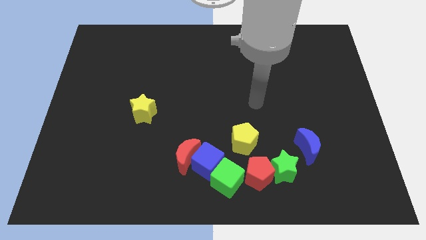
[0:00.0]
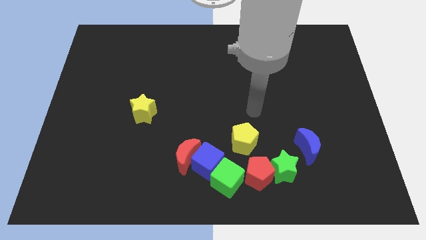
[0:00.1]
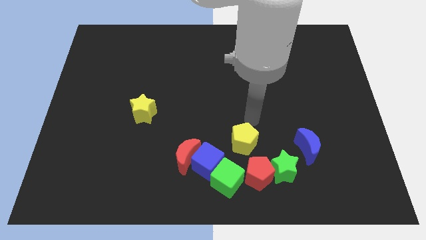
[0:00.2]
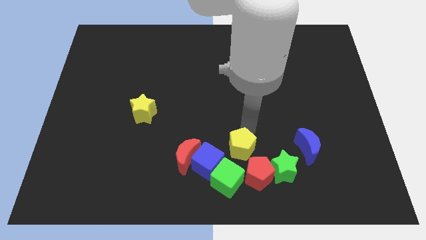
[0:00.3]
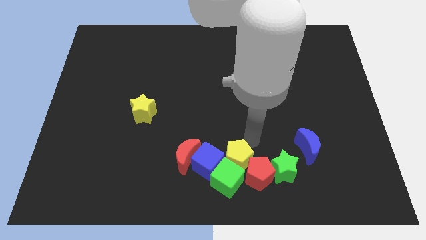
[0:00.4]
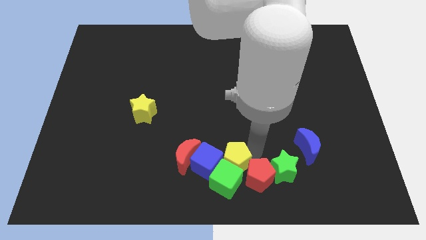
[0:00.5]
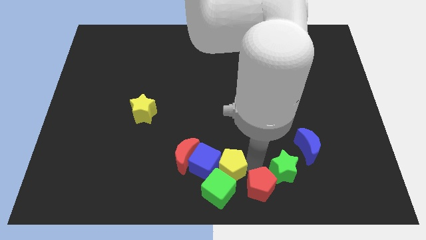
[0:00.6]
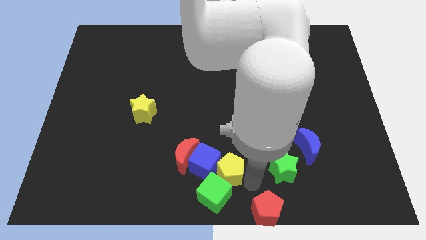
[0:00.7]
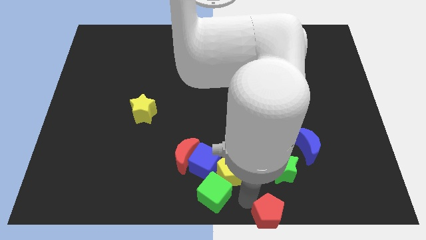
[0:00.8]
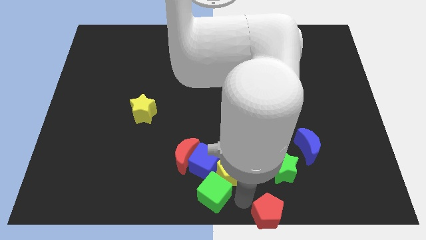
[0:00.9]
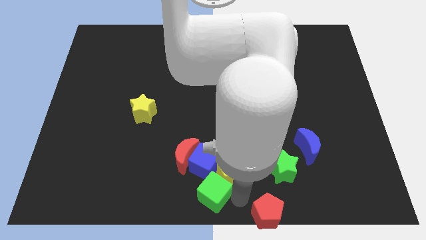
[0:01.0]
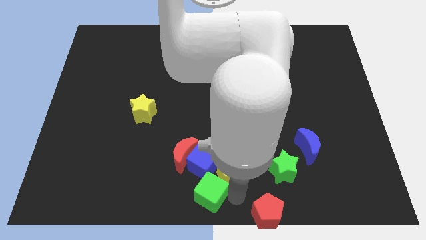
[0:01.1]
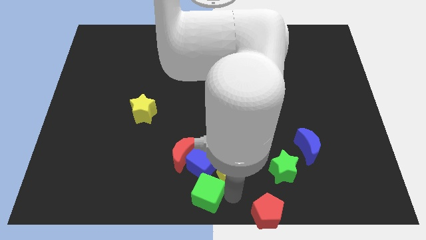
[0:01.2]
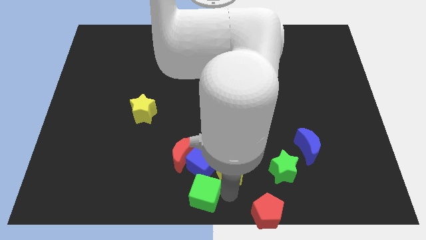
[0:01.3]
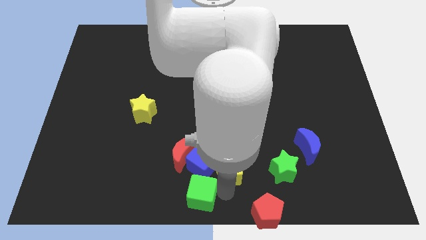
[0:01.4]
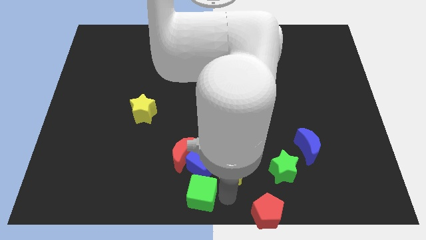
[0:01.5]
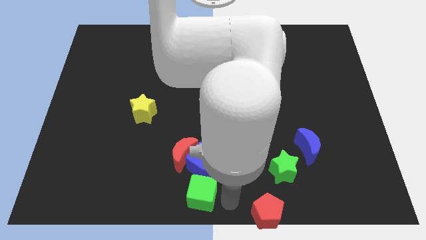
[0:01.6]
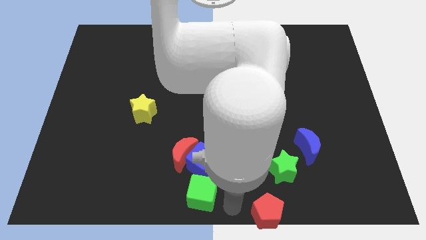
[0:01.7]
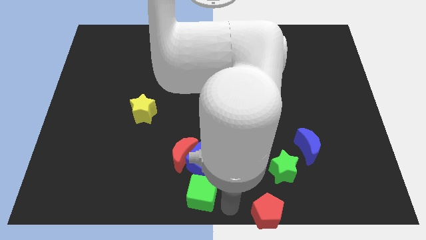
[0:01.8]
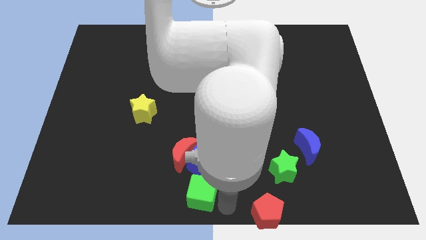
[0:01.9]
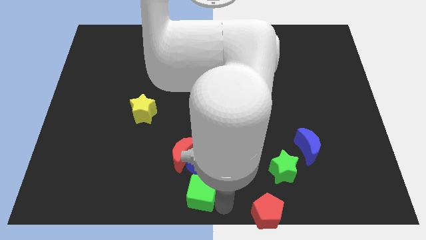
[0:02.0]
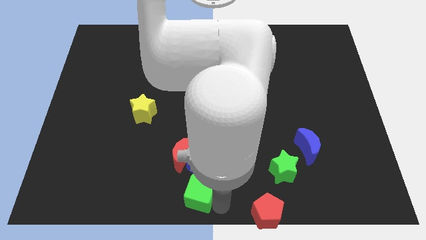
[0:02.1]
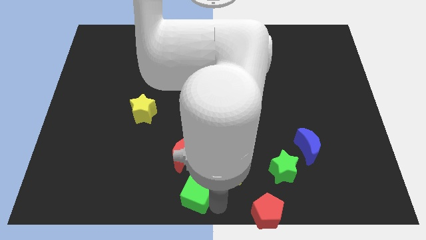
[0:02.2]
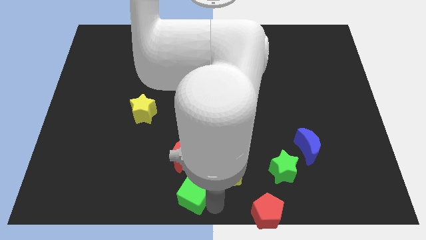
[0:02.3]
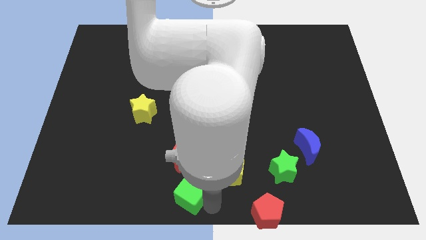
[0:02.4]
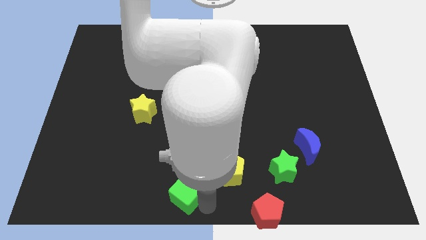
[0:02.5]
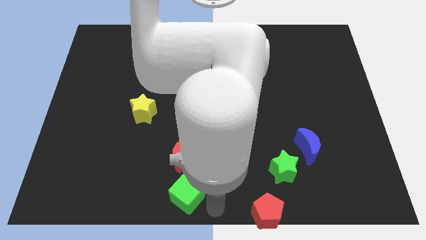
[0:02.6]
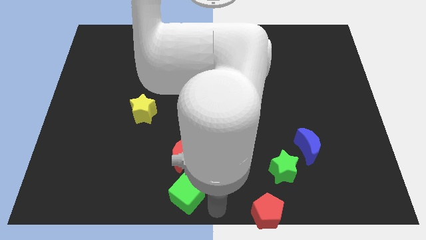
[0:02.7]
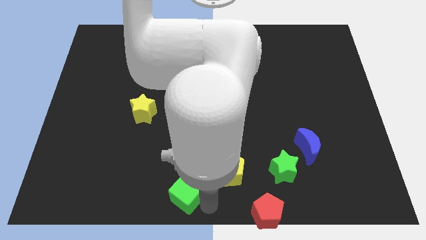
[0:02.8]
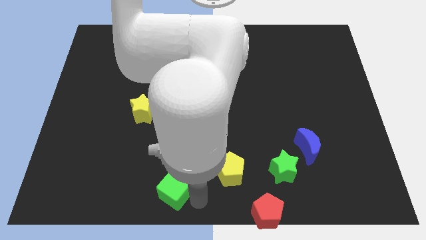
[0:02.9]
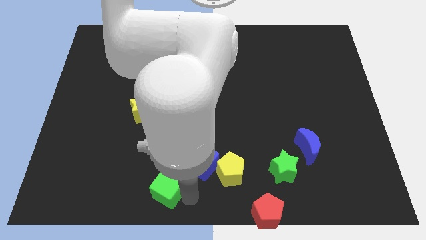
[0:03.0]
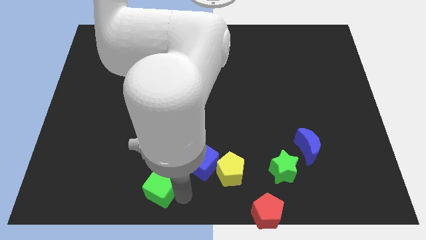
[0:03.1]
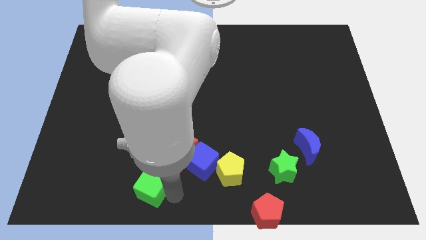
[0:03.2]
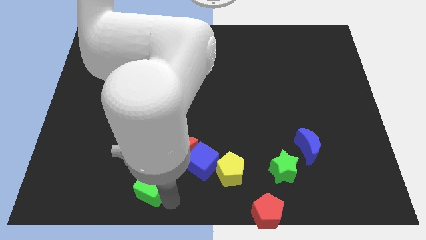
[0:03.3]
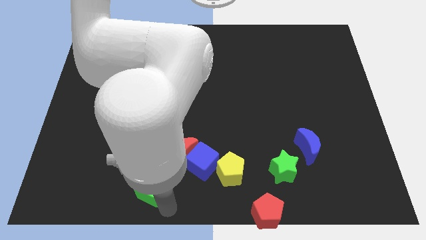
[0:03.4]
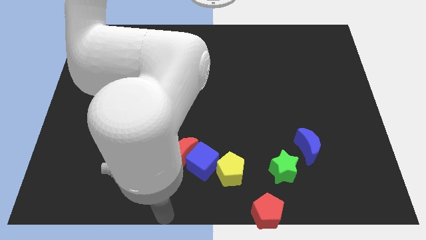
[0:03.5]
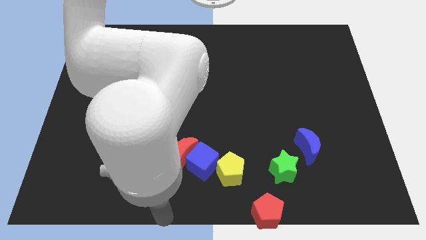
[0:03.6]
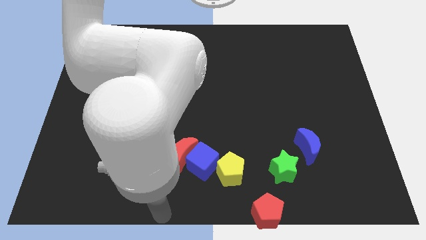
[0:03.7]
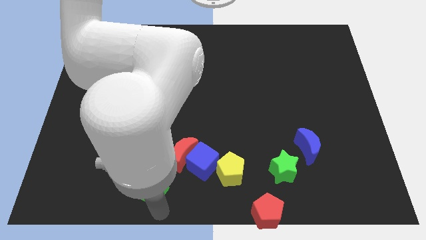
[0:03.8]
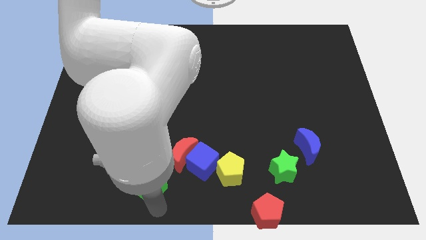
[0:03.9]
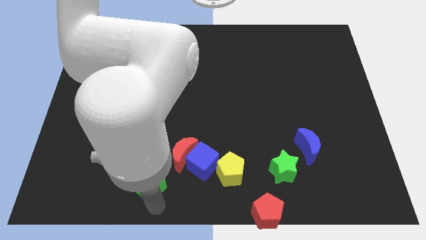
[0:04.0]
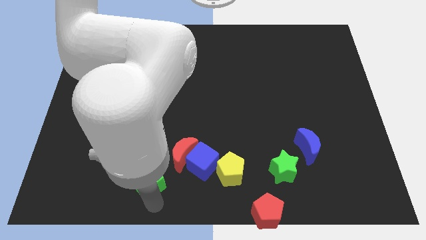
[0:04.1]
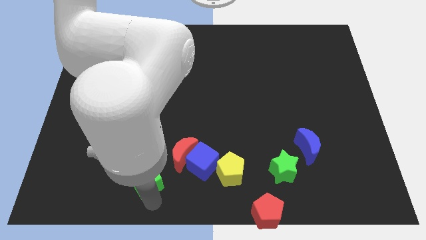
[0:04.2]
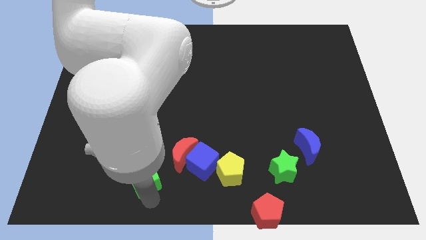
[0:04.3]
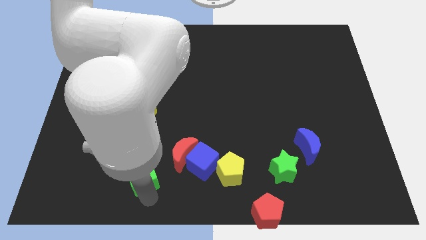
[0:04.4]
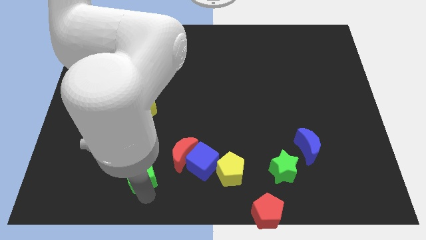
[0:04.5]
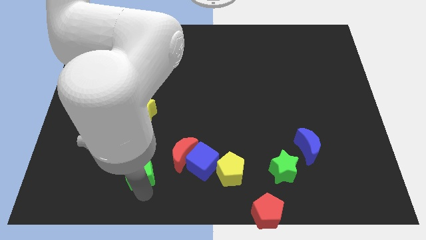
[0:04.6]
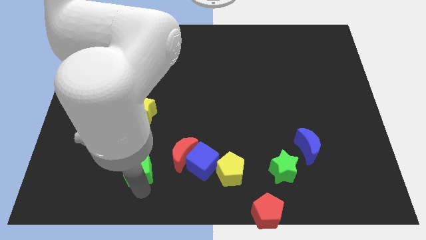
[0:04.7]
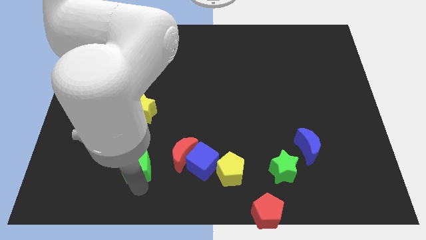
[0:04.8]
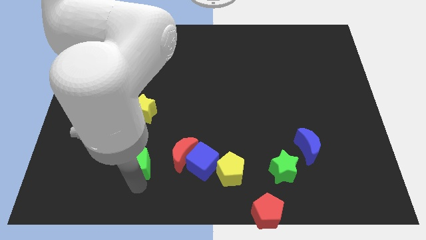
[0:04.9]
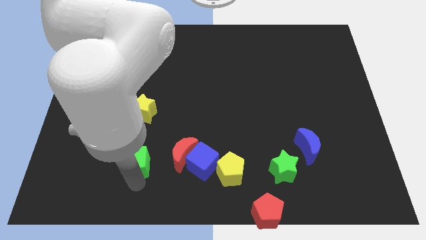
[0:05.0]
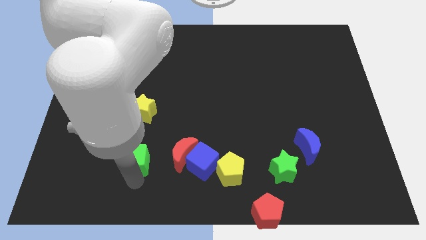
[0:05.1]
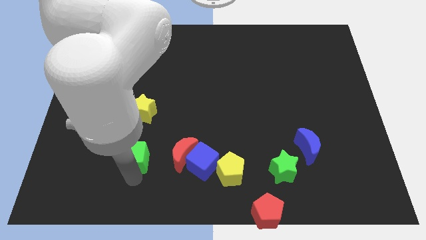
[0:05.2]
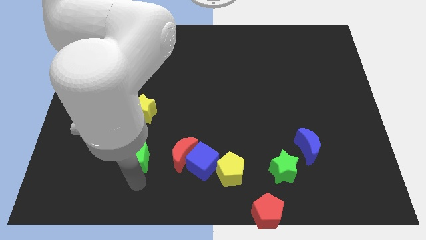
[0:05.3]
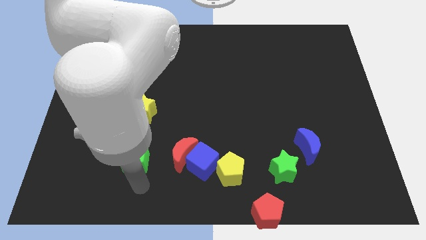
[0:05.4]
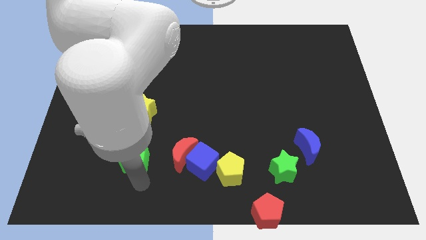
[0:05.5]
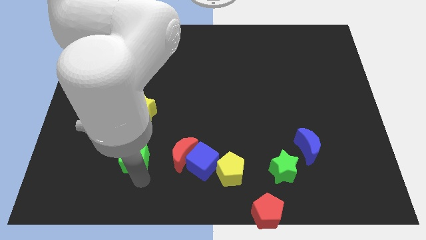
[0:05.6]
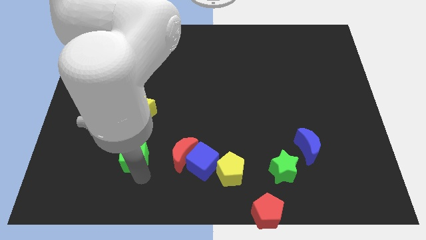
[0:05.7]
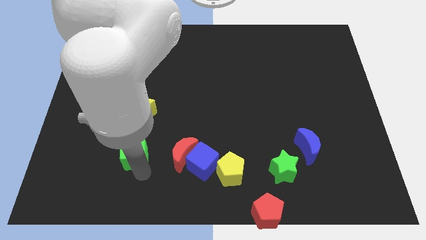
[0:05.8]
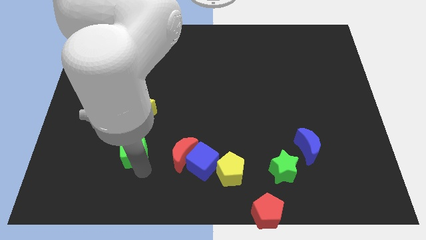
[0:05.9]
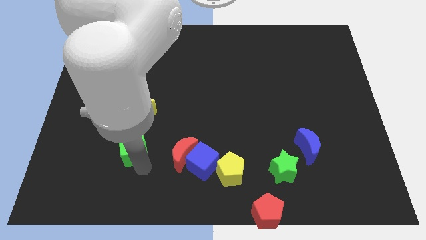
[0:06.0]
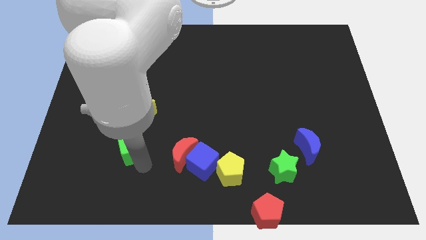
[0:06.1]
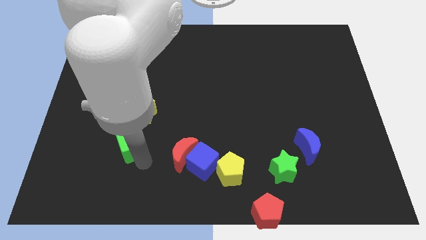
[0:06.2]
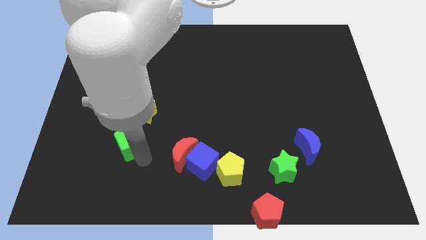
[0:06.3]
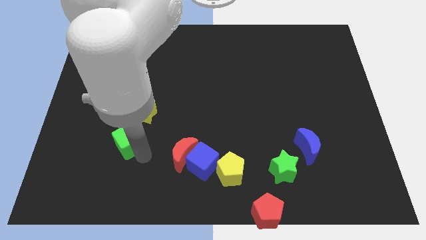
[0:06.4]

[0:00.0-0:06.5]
move the green cube to the bottom left side of the yellow star

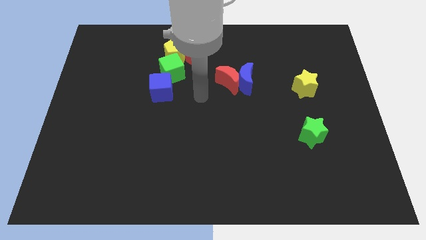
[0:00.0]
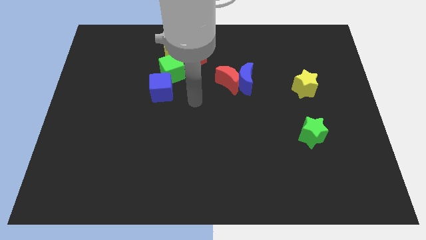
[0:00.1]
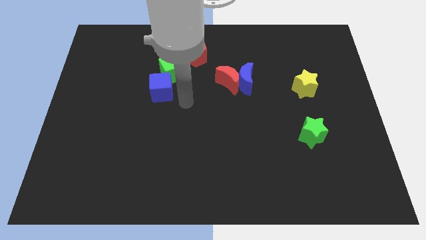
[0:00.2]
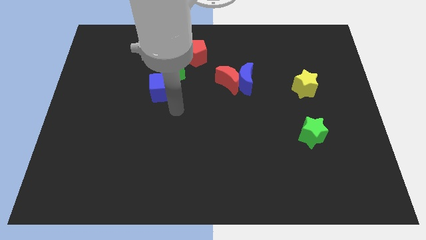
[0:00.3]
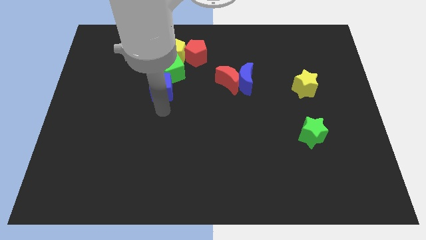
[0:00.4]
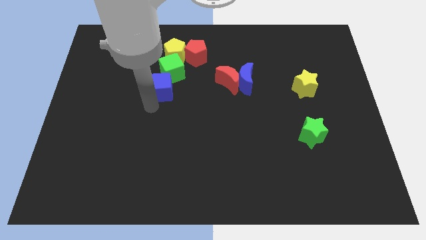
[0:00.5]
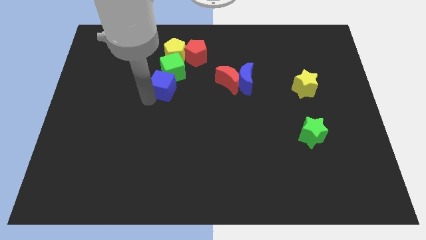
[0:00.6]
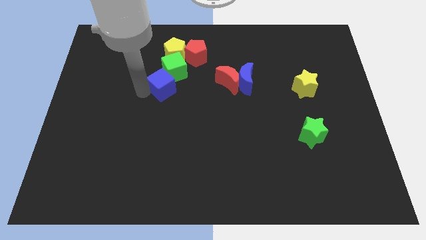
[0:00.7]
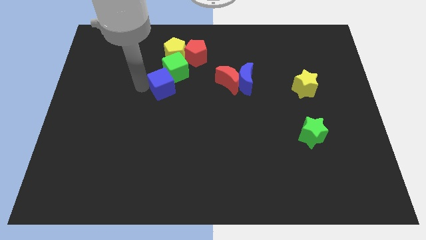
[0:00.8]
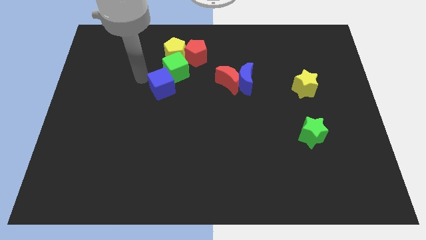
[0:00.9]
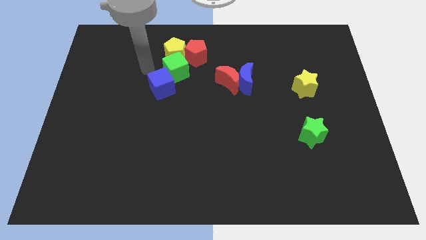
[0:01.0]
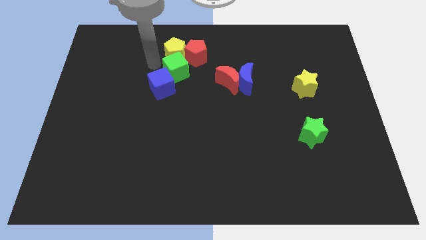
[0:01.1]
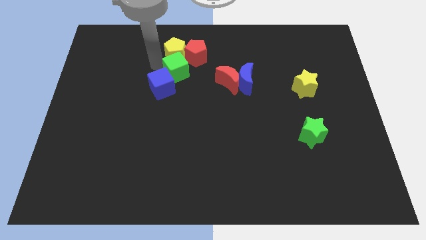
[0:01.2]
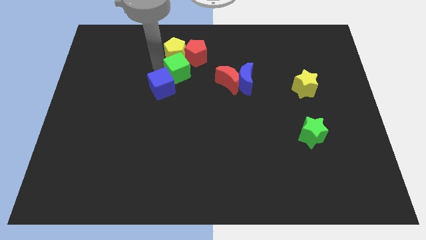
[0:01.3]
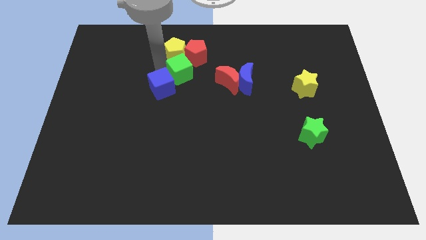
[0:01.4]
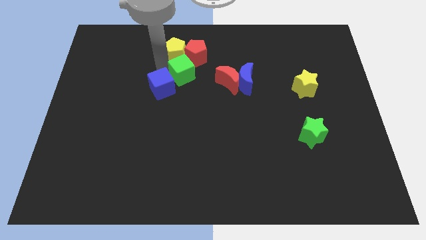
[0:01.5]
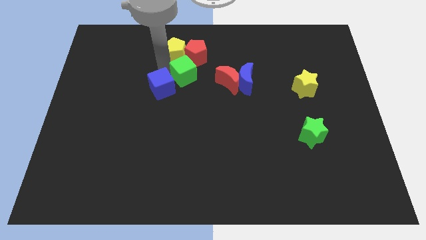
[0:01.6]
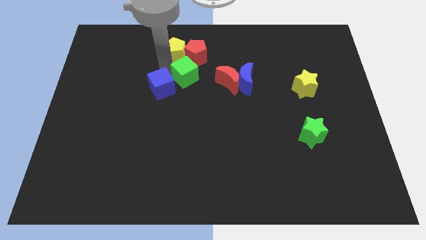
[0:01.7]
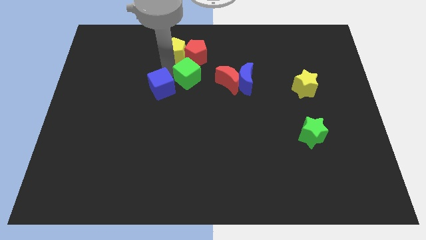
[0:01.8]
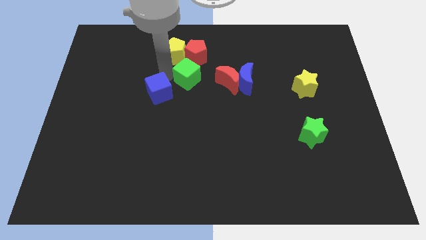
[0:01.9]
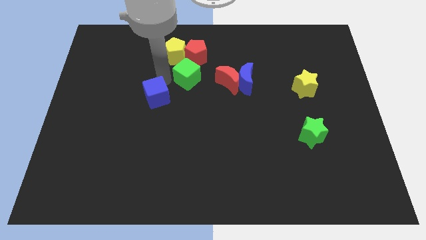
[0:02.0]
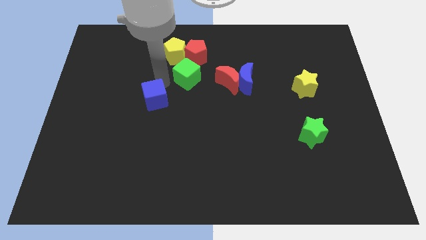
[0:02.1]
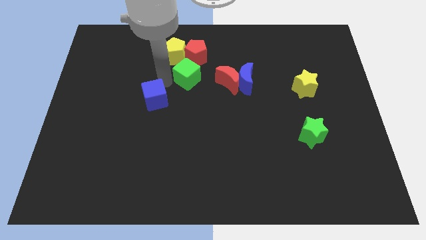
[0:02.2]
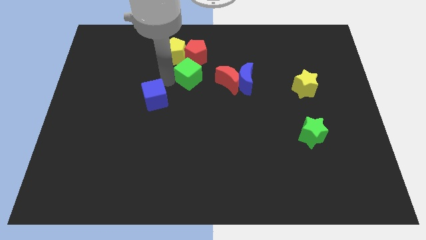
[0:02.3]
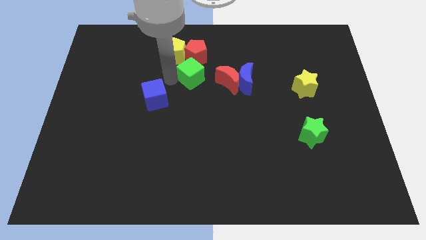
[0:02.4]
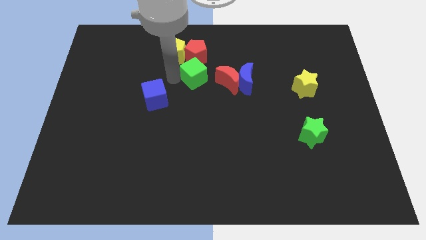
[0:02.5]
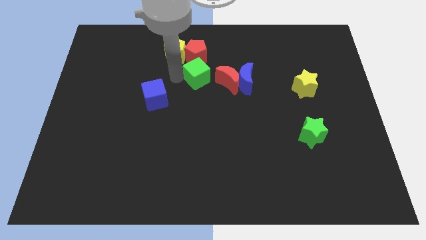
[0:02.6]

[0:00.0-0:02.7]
push the green cube diagonally down and to the right of the red pentagon
